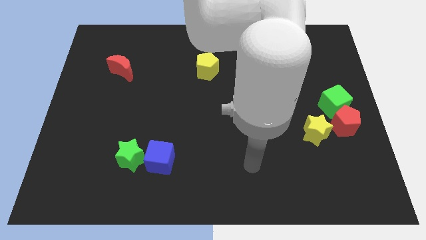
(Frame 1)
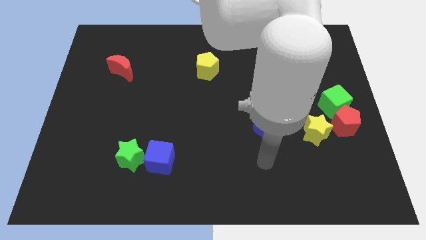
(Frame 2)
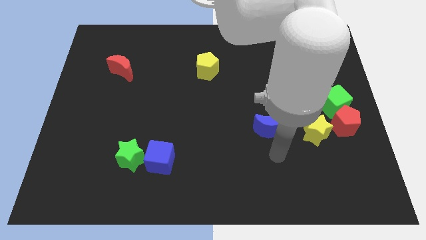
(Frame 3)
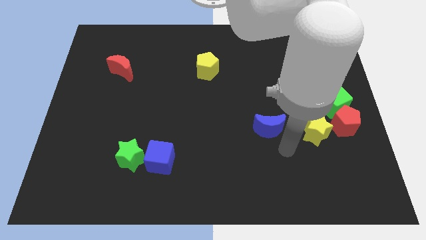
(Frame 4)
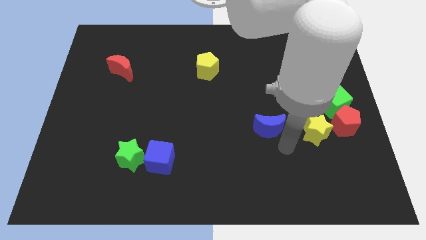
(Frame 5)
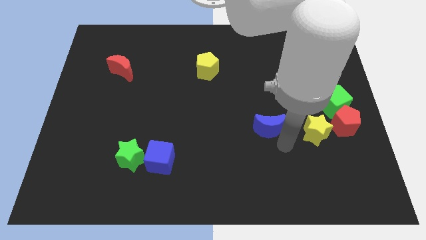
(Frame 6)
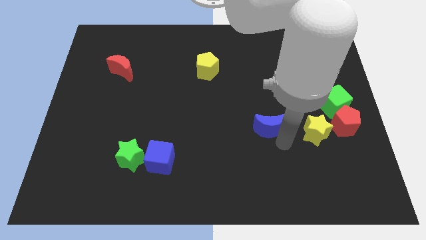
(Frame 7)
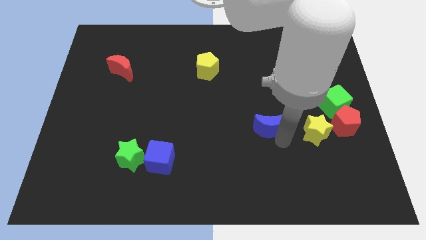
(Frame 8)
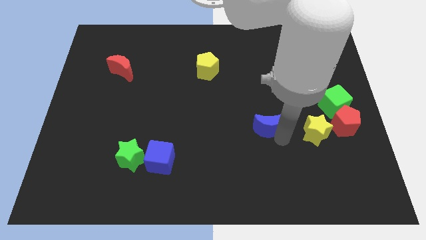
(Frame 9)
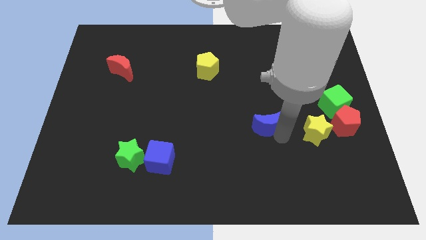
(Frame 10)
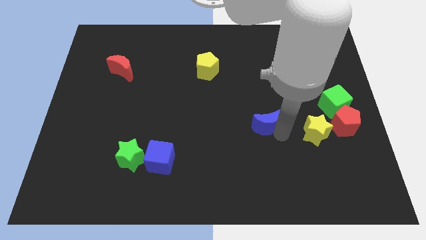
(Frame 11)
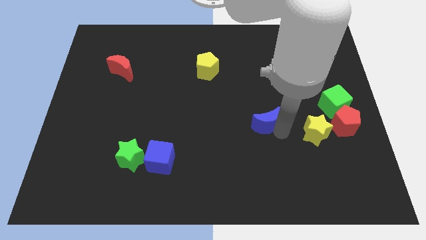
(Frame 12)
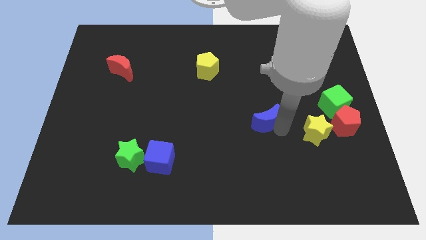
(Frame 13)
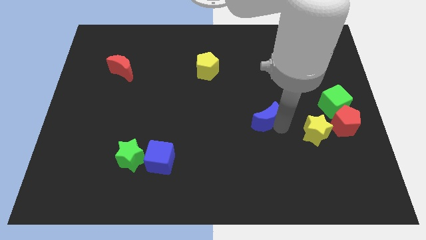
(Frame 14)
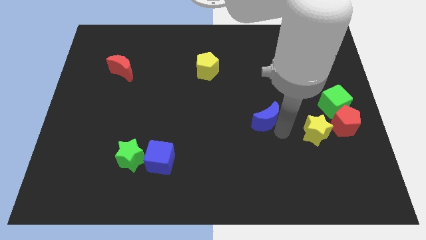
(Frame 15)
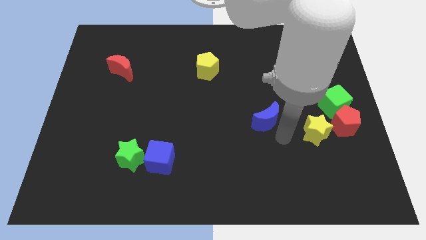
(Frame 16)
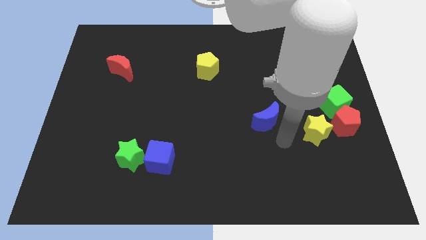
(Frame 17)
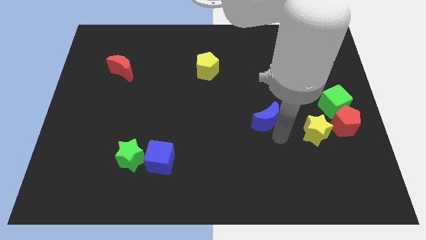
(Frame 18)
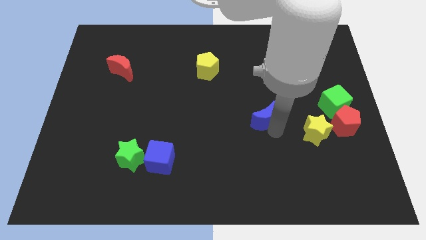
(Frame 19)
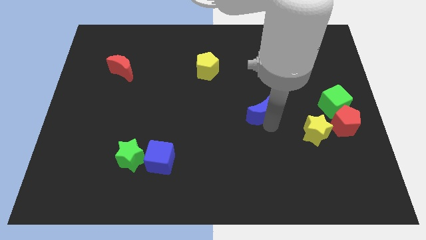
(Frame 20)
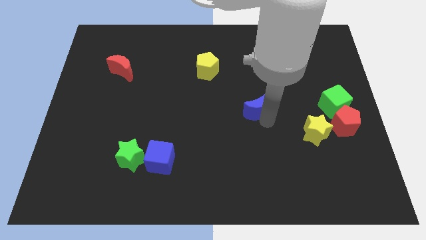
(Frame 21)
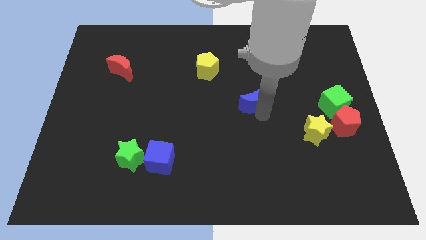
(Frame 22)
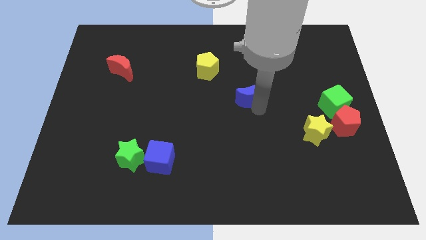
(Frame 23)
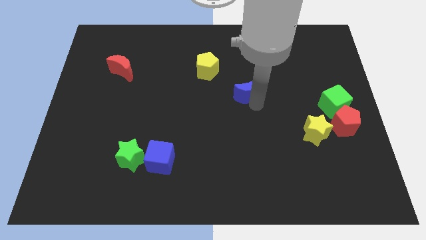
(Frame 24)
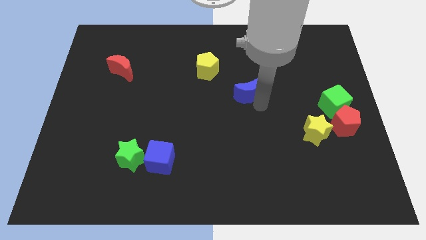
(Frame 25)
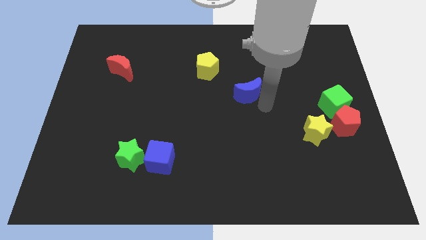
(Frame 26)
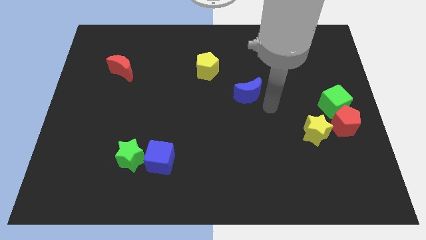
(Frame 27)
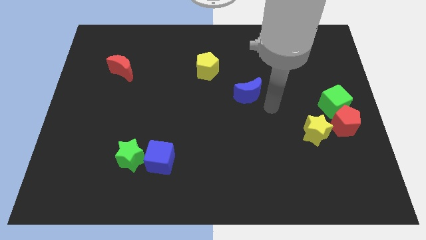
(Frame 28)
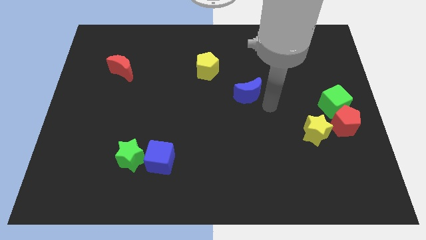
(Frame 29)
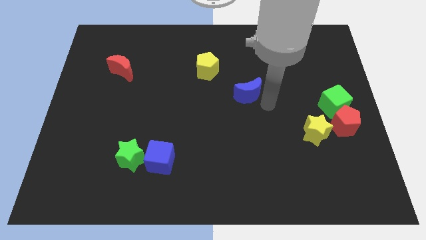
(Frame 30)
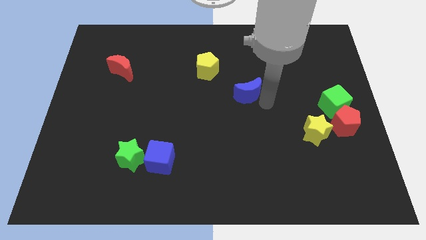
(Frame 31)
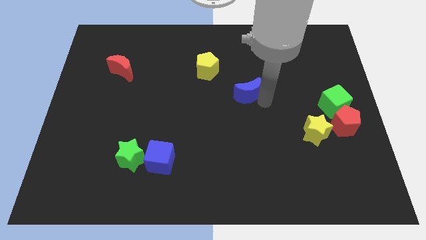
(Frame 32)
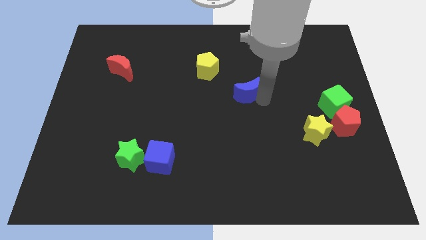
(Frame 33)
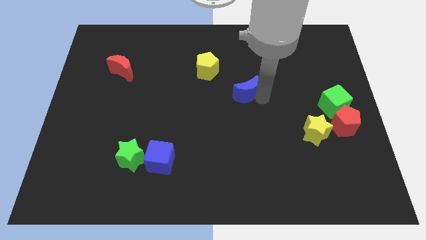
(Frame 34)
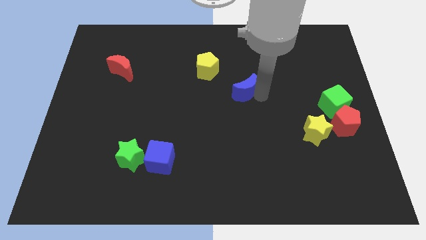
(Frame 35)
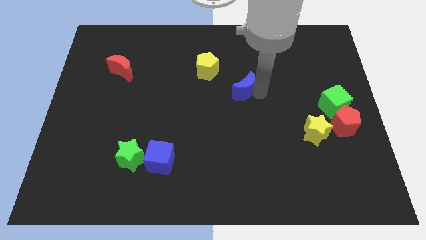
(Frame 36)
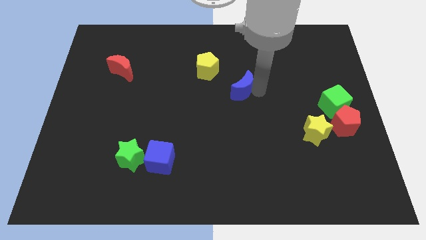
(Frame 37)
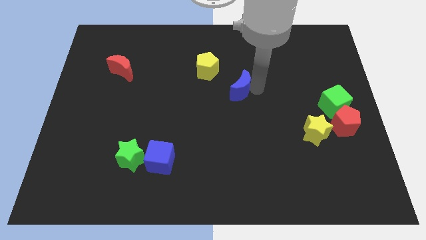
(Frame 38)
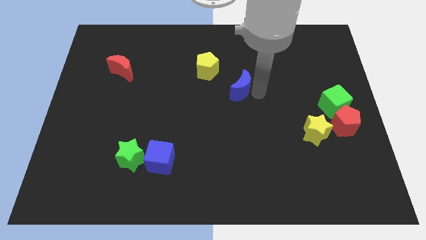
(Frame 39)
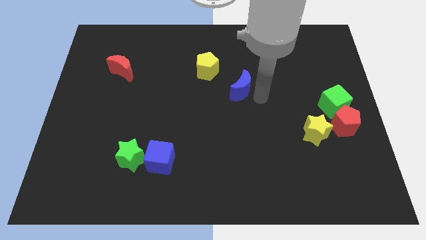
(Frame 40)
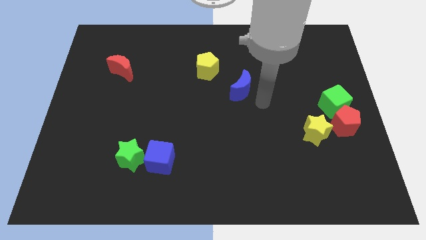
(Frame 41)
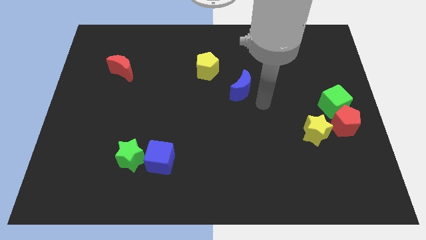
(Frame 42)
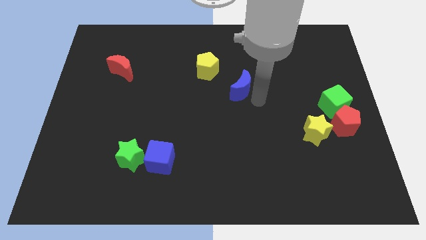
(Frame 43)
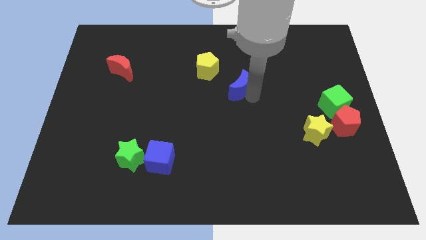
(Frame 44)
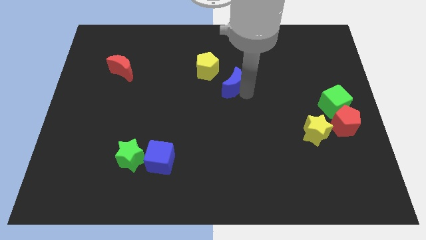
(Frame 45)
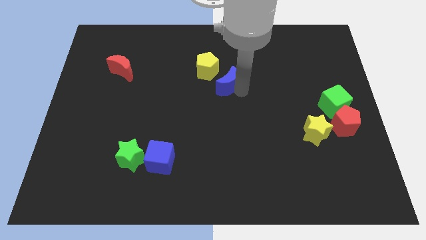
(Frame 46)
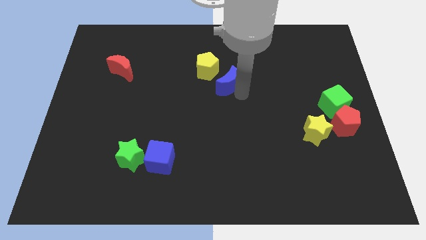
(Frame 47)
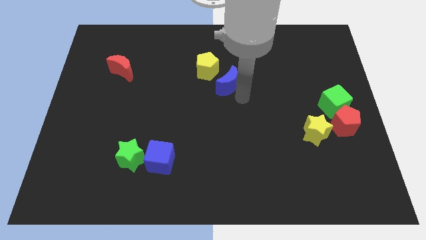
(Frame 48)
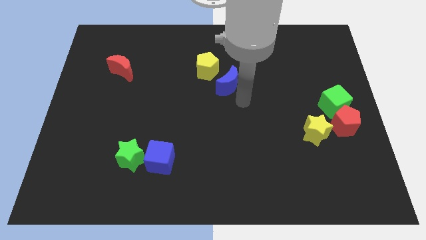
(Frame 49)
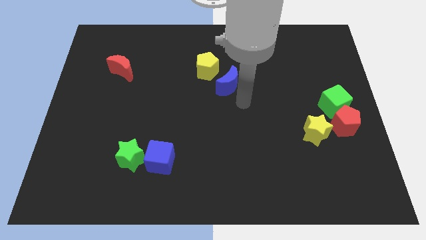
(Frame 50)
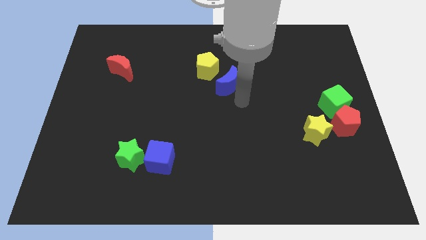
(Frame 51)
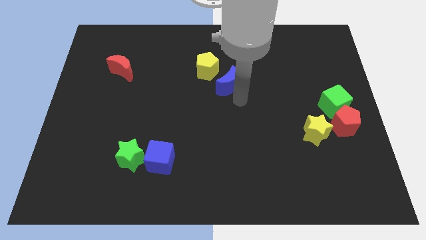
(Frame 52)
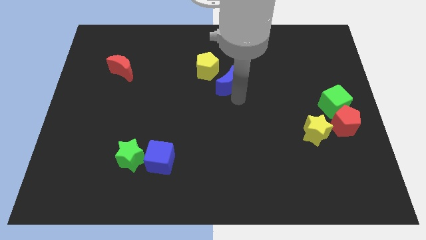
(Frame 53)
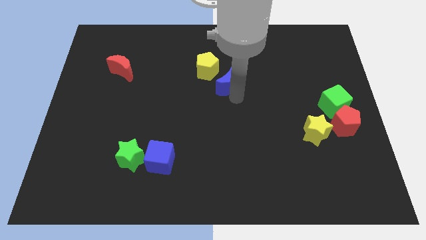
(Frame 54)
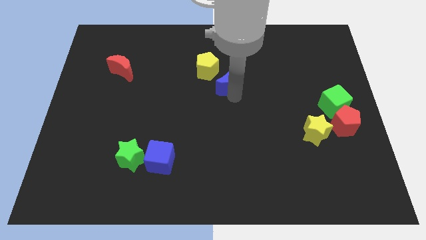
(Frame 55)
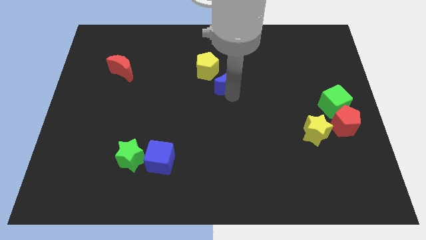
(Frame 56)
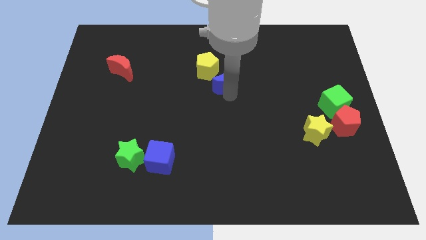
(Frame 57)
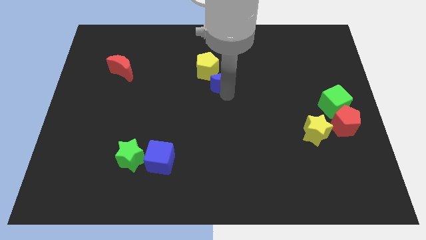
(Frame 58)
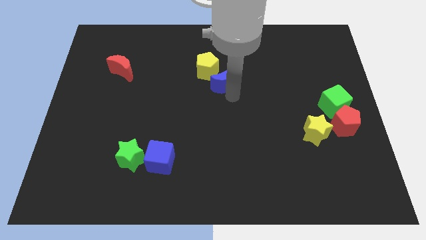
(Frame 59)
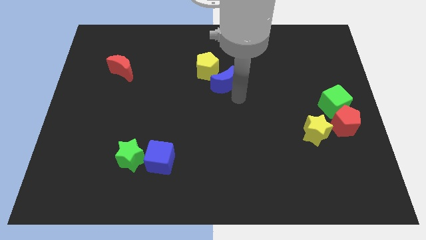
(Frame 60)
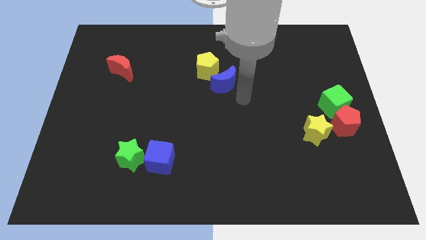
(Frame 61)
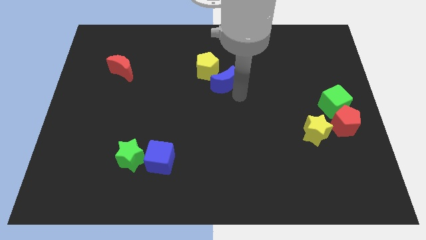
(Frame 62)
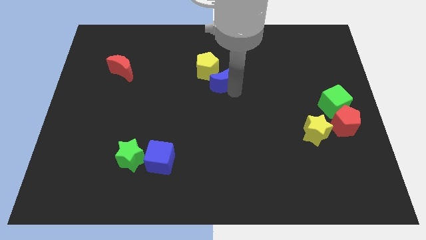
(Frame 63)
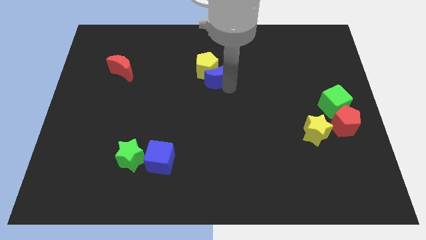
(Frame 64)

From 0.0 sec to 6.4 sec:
push the blue moon next to the yellow pentagon

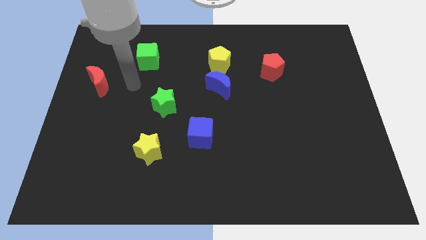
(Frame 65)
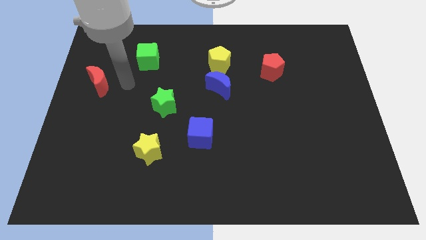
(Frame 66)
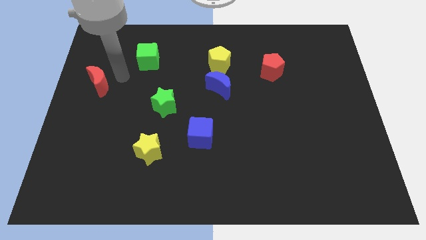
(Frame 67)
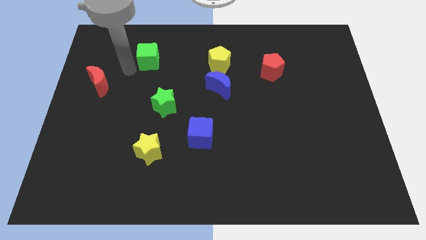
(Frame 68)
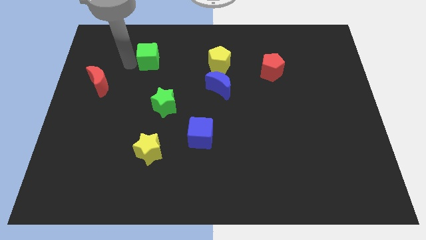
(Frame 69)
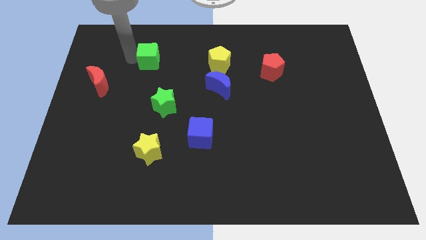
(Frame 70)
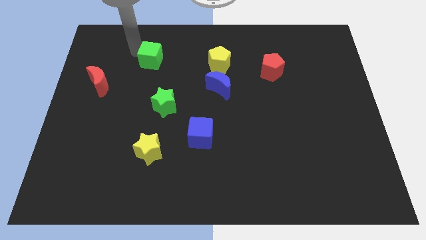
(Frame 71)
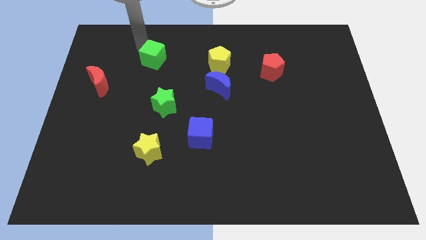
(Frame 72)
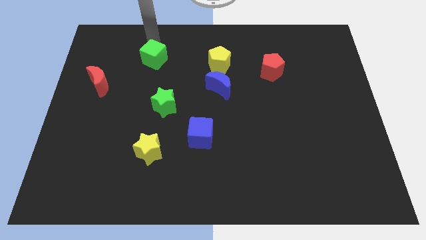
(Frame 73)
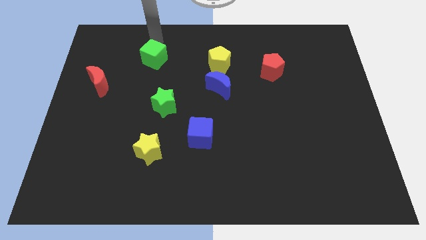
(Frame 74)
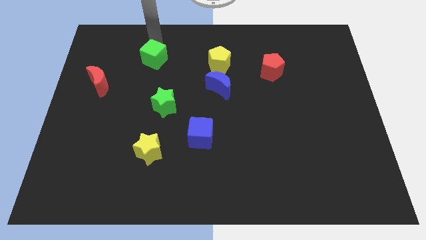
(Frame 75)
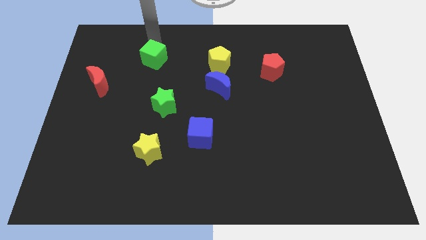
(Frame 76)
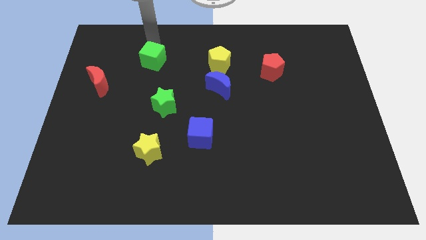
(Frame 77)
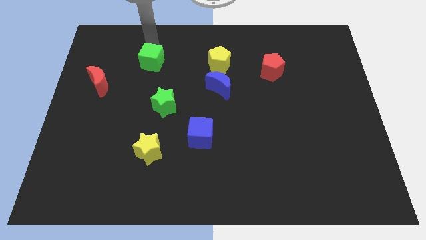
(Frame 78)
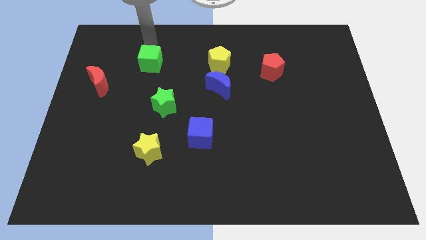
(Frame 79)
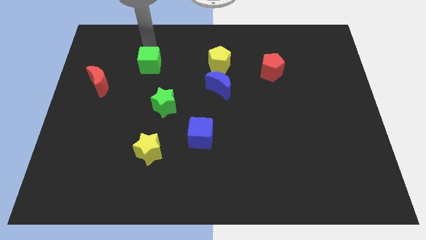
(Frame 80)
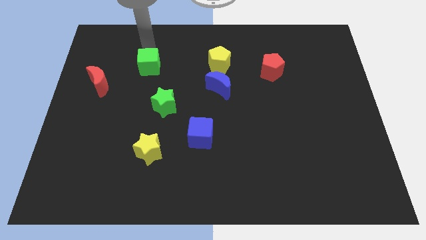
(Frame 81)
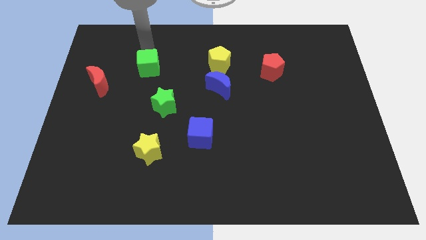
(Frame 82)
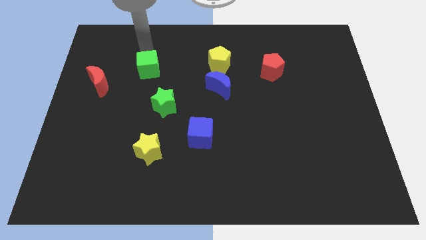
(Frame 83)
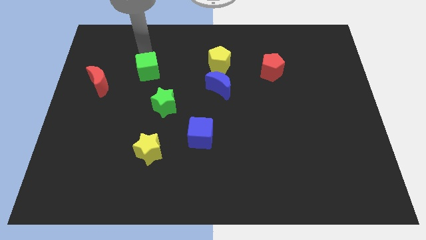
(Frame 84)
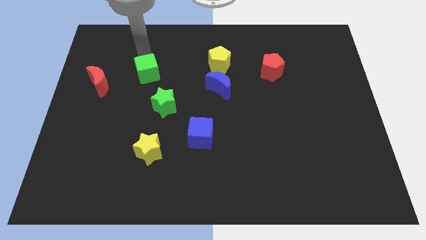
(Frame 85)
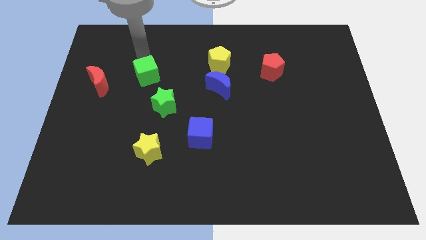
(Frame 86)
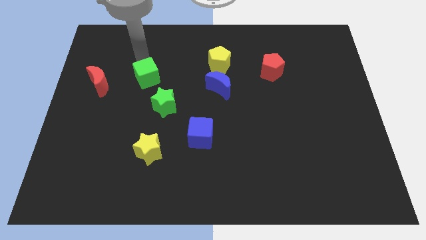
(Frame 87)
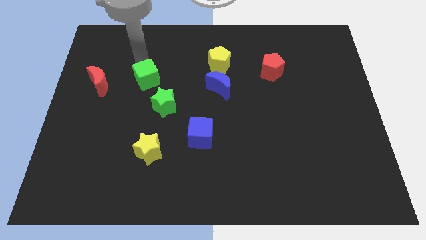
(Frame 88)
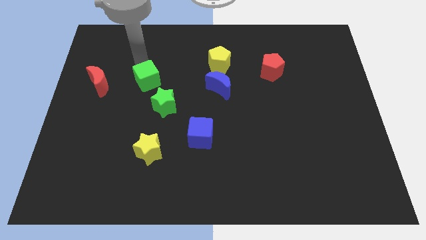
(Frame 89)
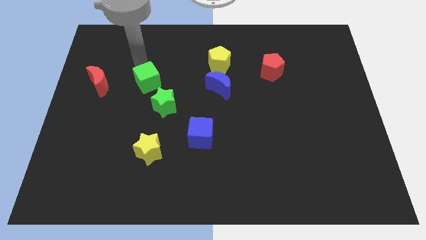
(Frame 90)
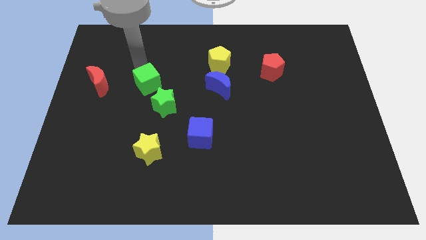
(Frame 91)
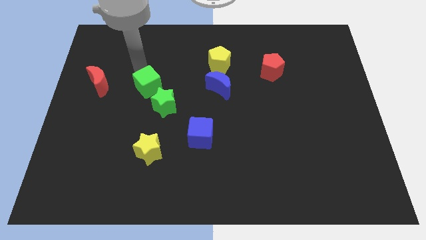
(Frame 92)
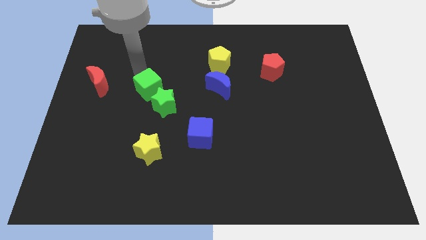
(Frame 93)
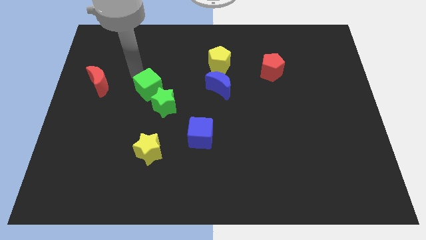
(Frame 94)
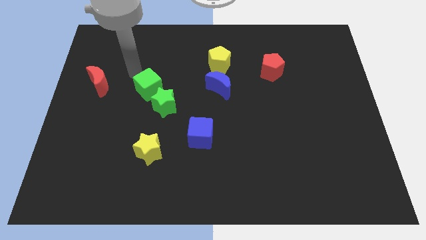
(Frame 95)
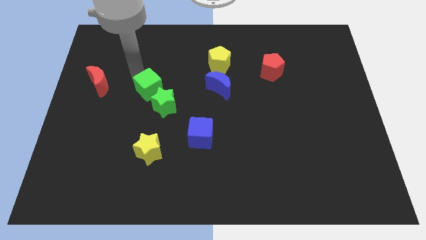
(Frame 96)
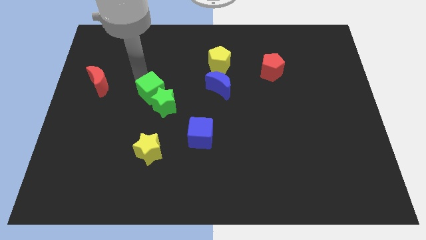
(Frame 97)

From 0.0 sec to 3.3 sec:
slide the green cube close to the green star
